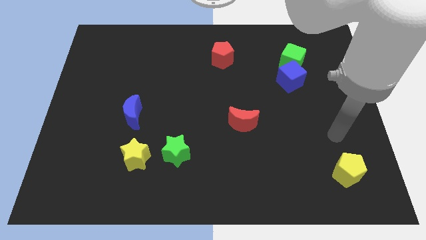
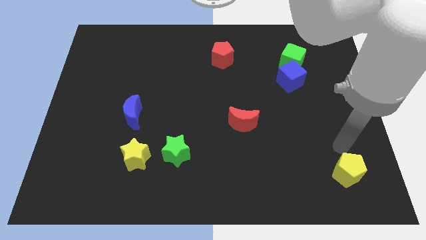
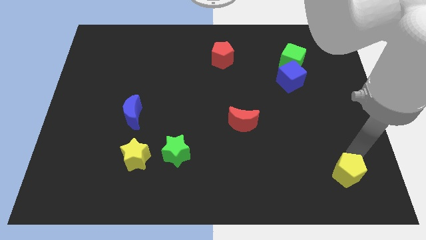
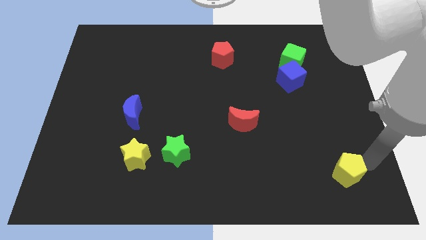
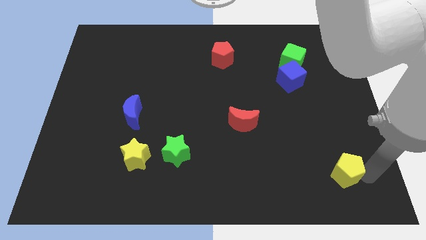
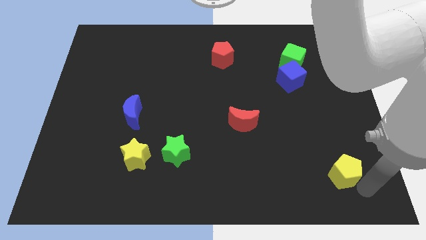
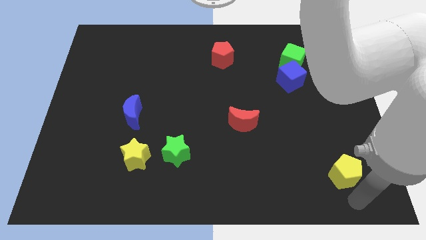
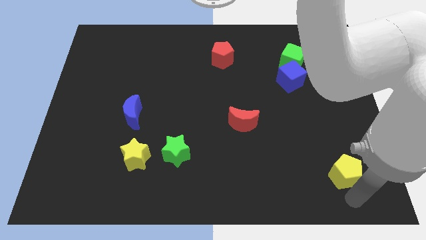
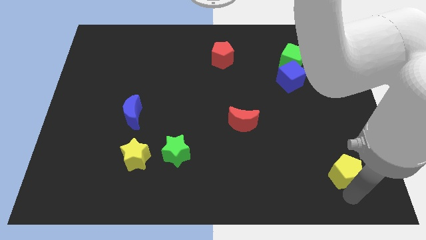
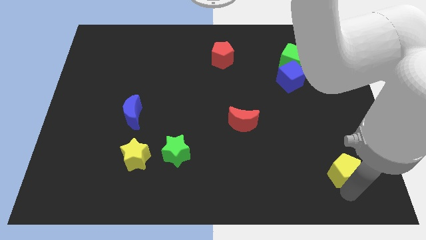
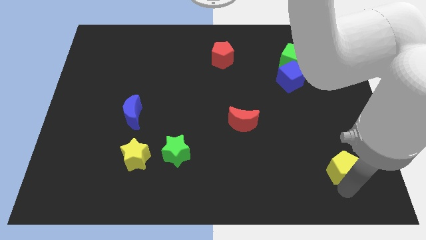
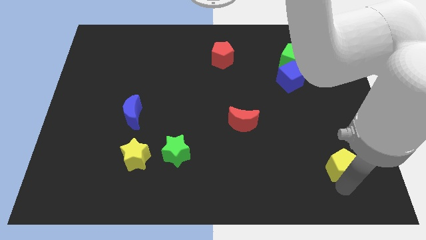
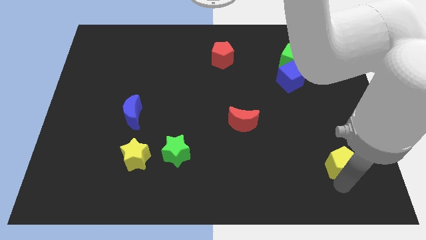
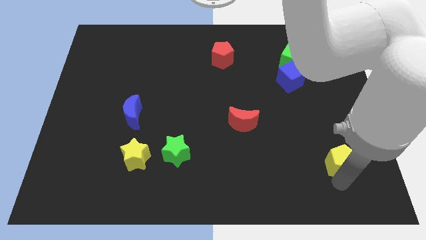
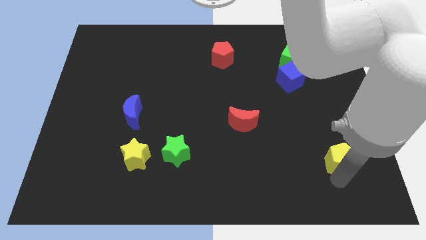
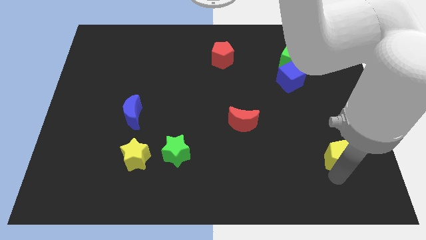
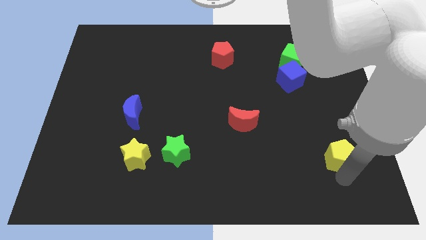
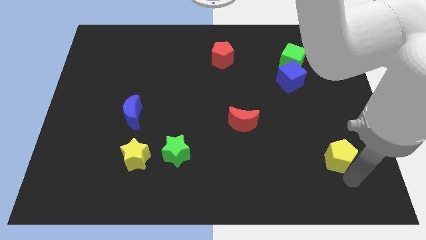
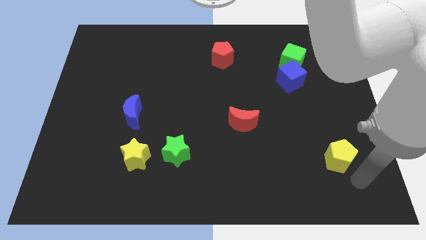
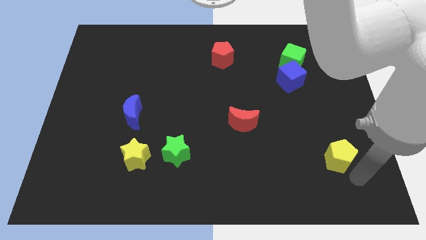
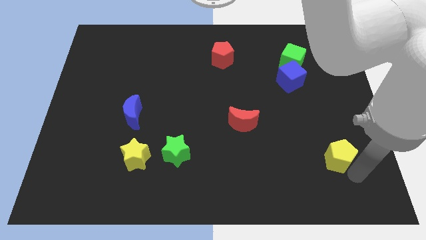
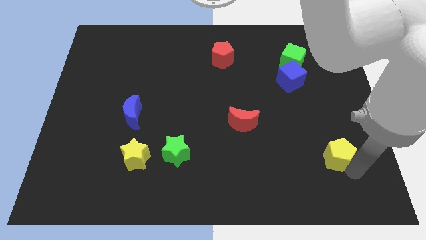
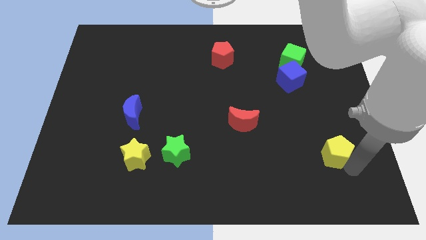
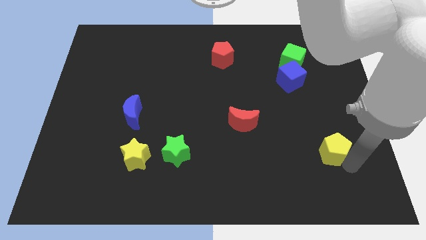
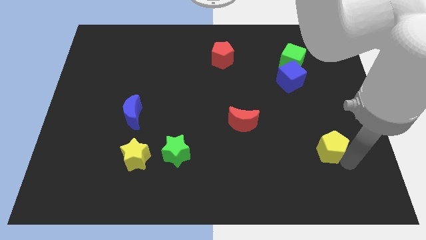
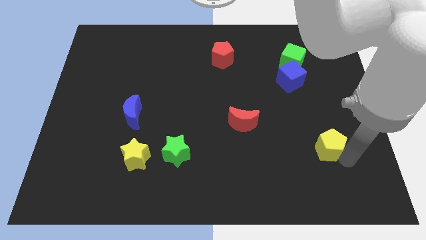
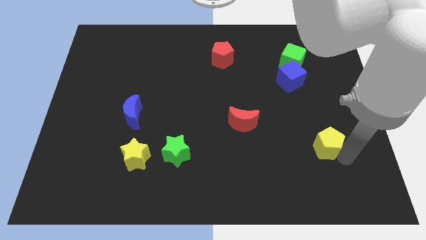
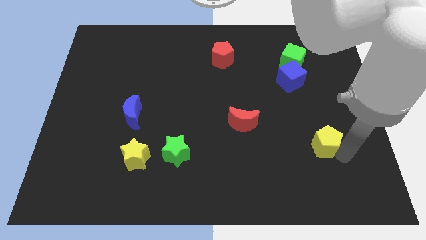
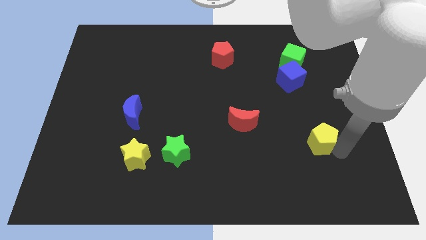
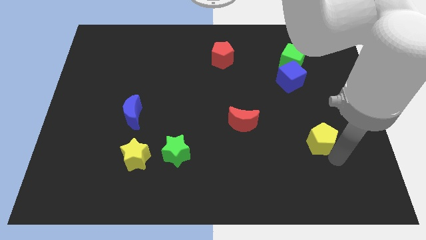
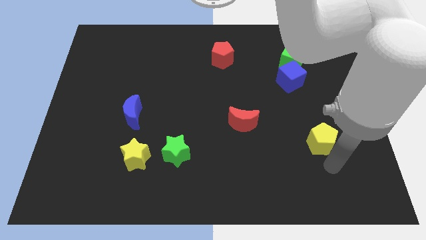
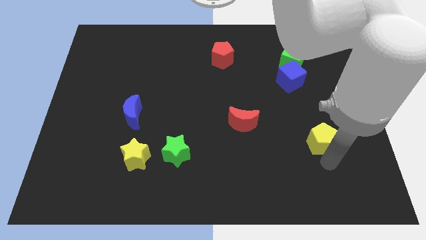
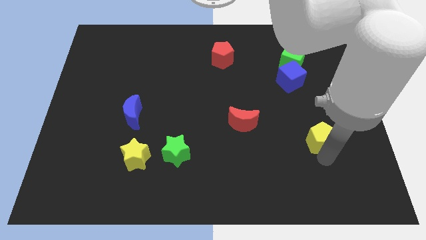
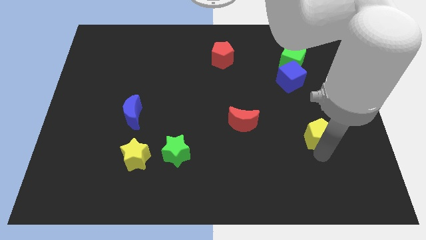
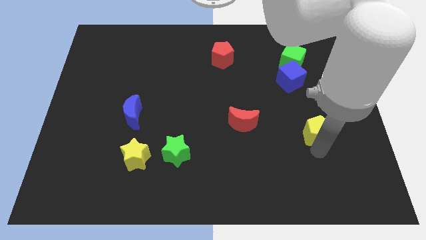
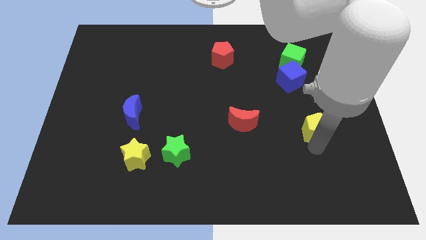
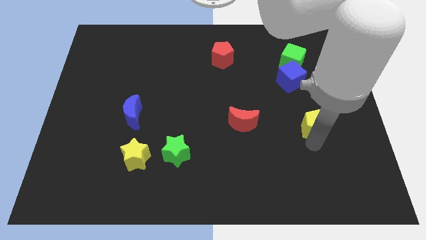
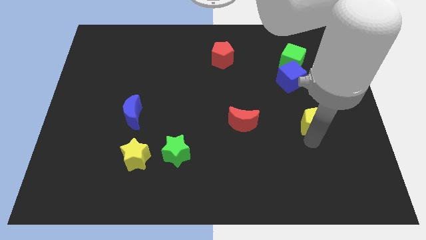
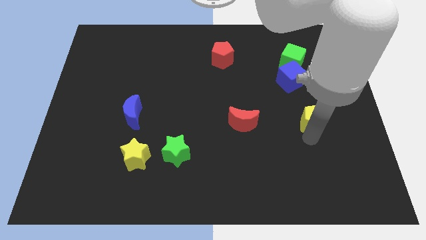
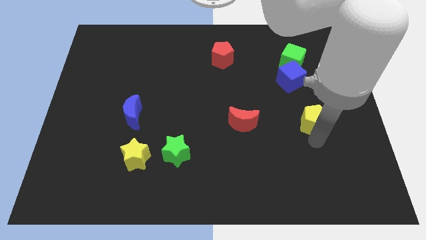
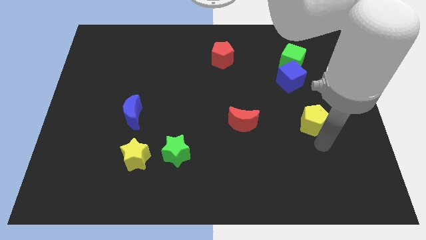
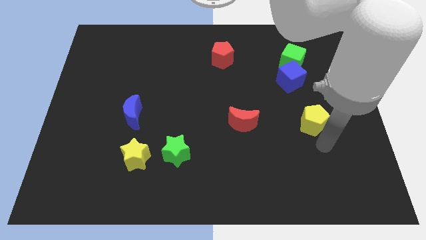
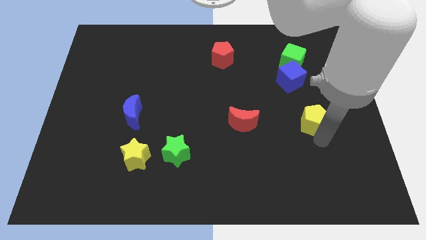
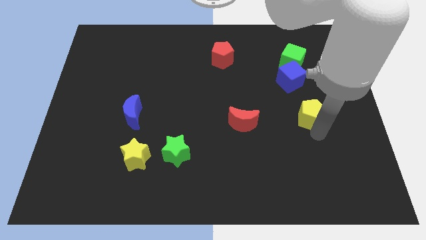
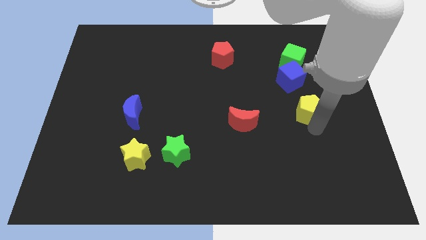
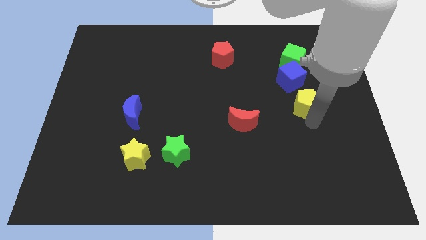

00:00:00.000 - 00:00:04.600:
put the yellow pentagon to the bottom side of the green cube

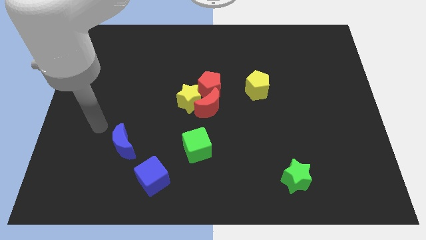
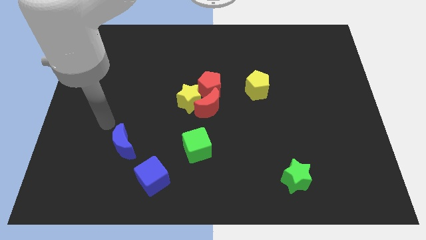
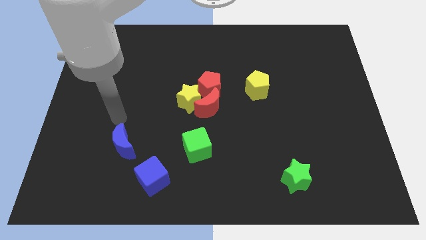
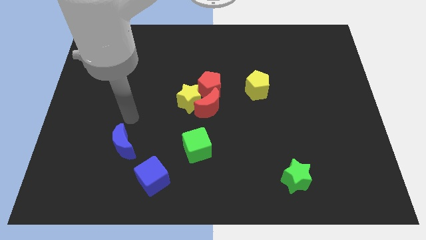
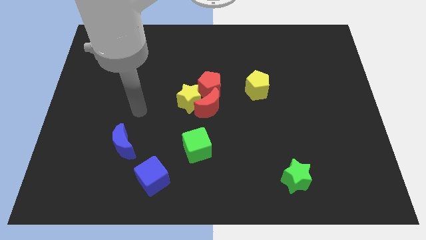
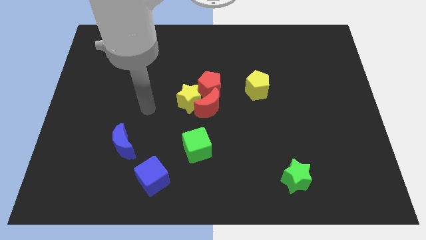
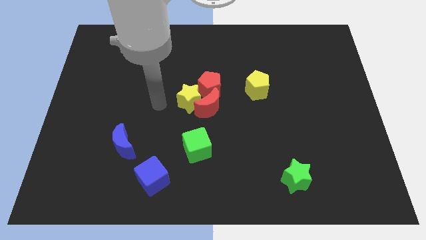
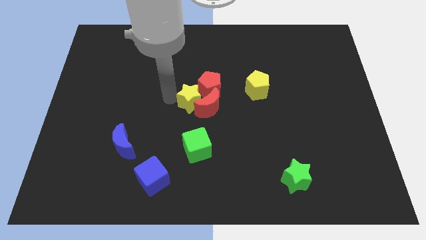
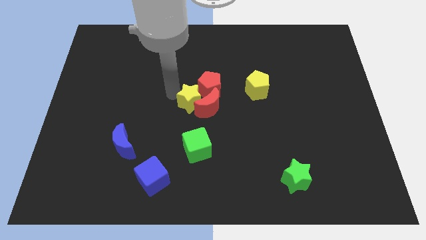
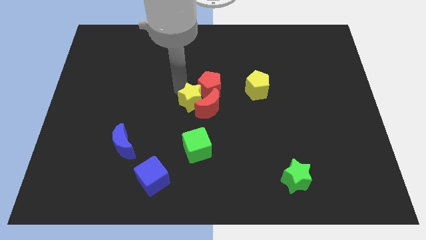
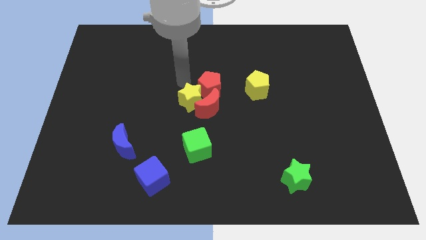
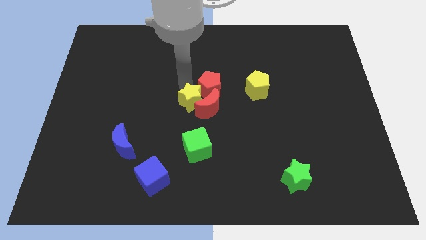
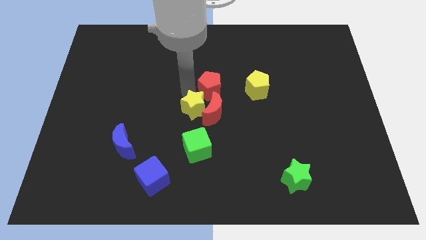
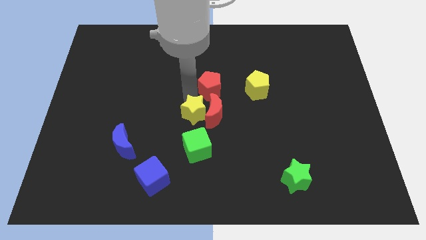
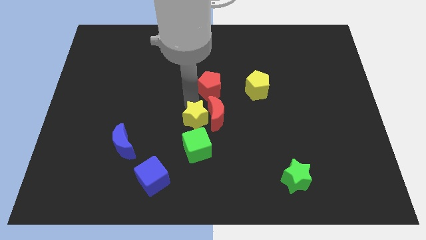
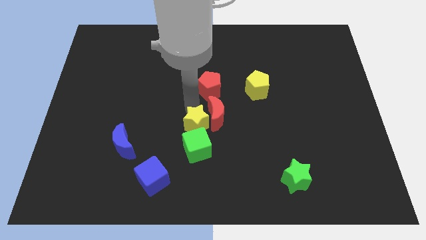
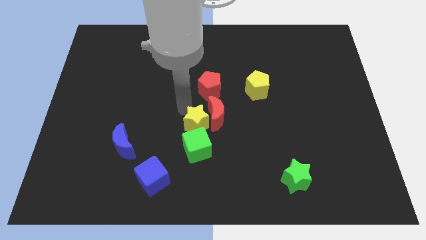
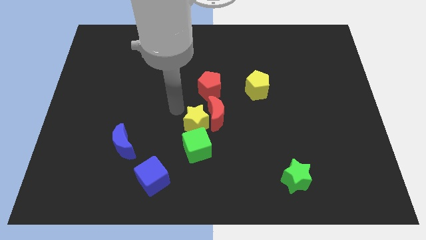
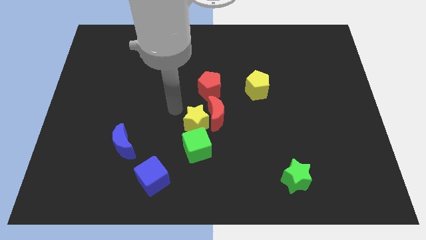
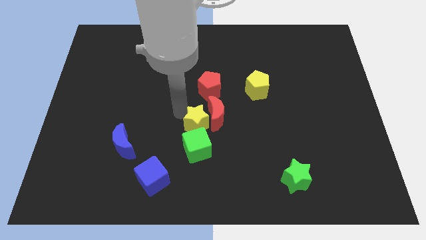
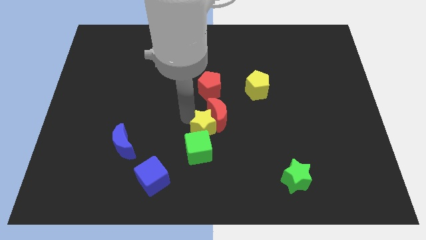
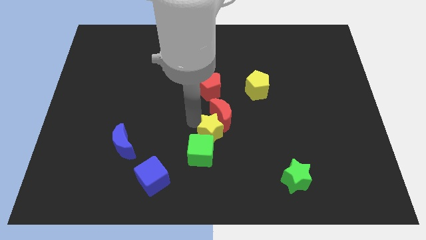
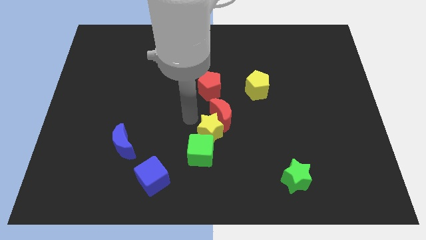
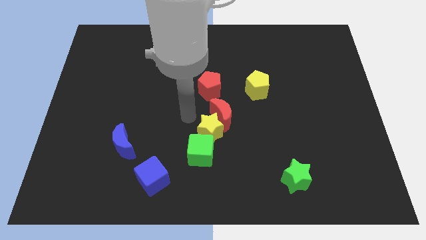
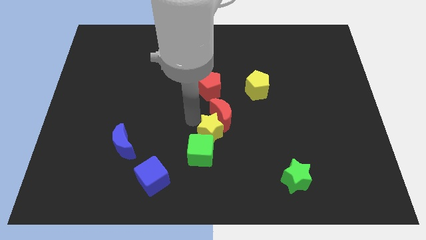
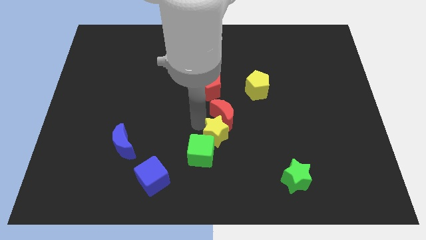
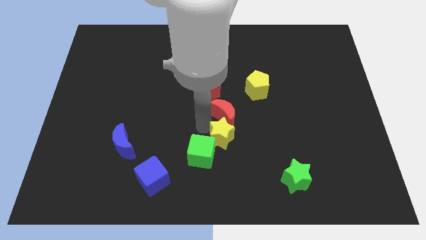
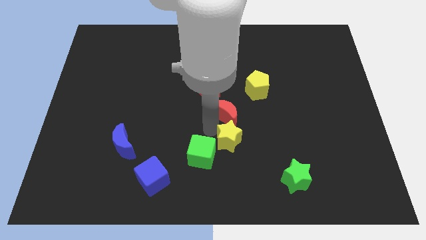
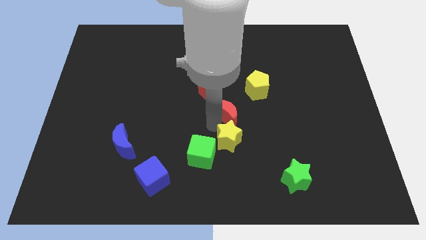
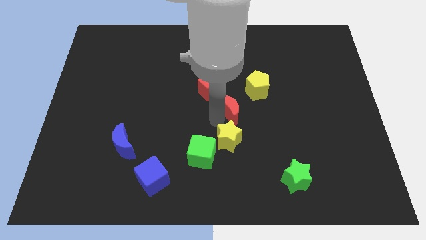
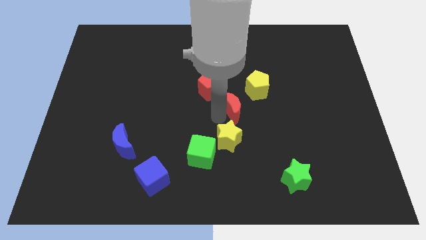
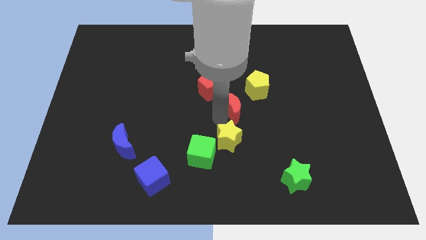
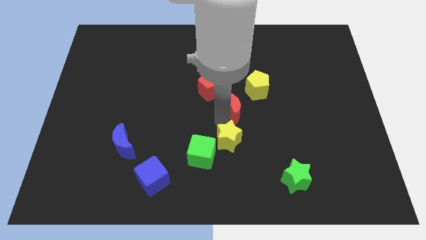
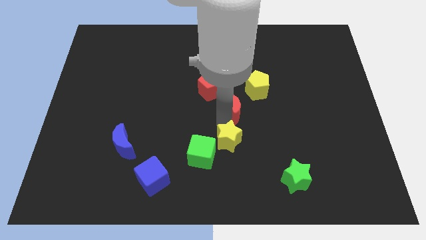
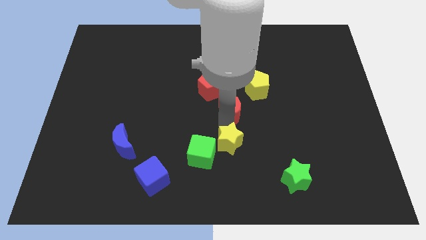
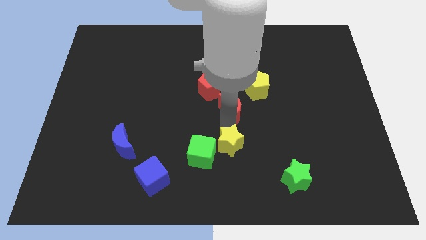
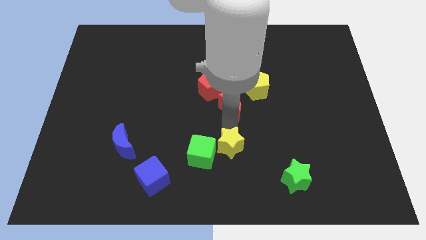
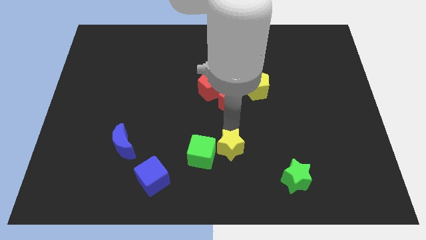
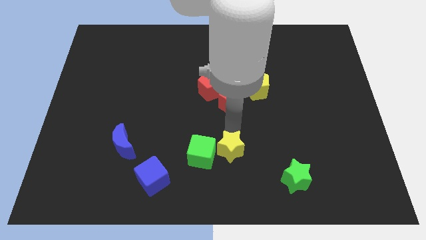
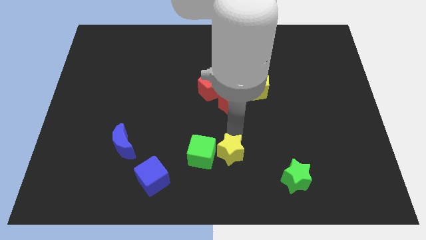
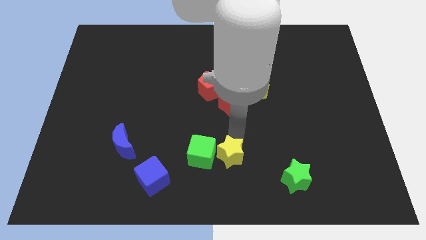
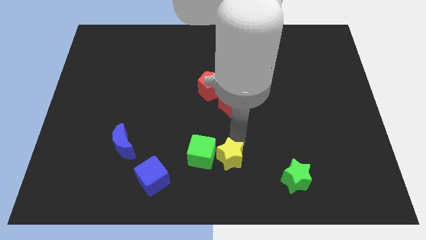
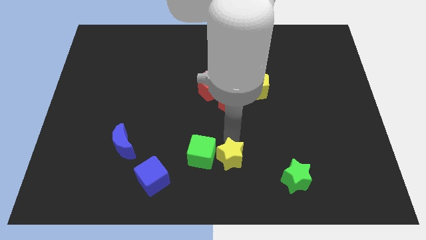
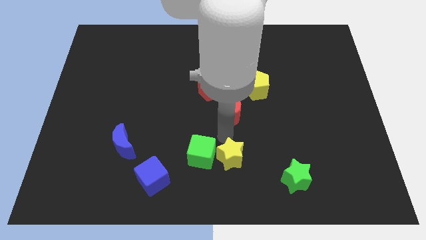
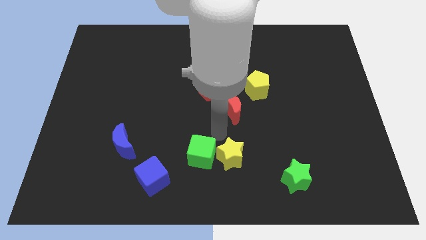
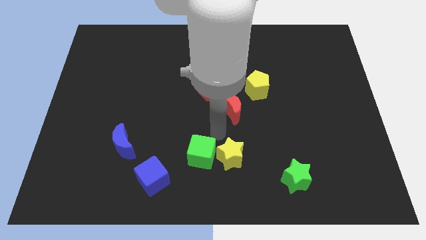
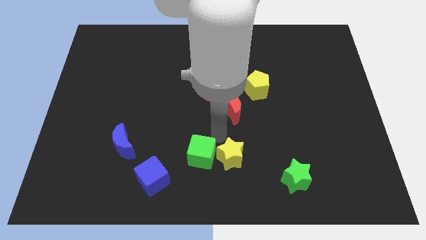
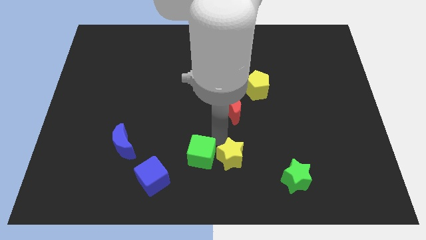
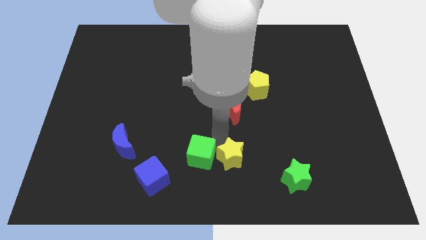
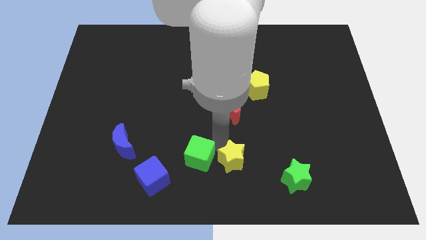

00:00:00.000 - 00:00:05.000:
slide the yellow star to the left of the green star
